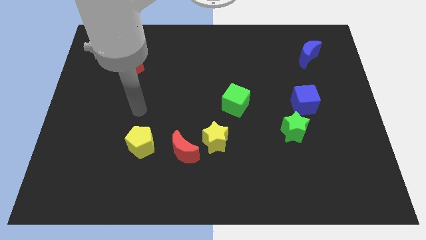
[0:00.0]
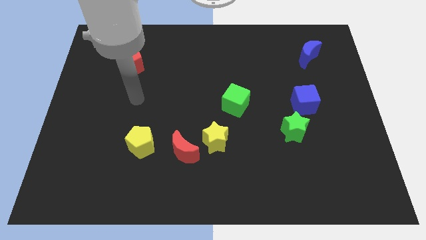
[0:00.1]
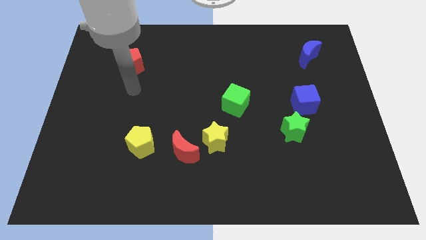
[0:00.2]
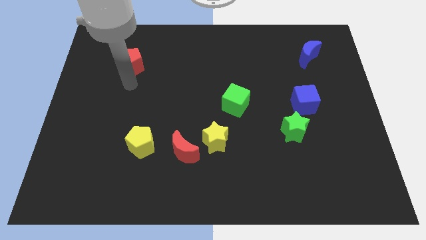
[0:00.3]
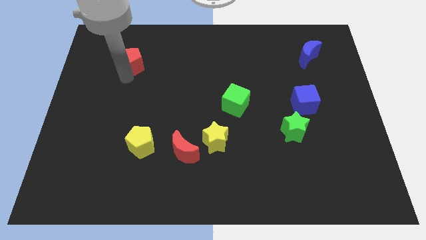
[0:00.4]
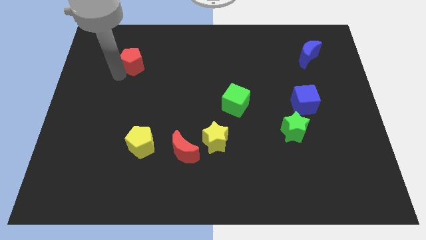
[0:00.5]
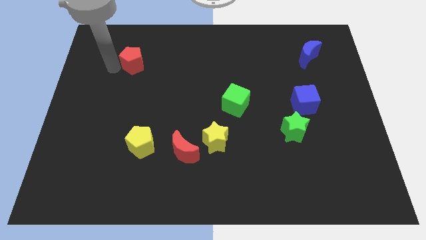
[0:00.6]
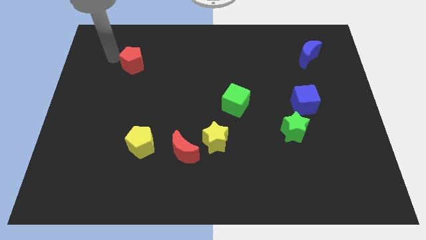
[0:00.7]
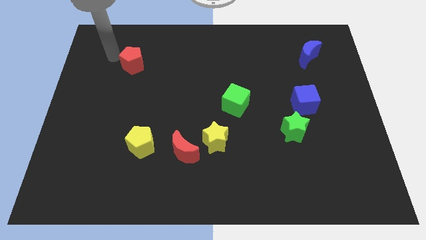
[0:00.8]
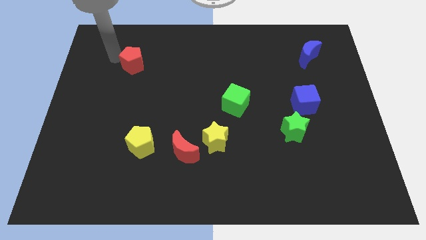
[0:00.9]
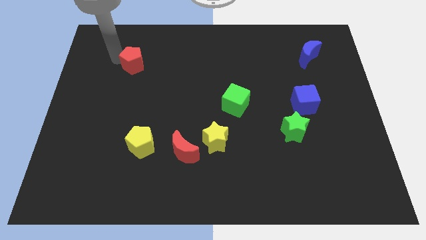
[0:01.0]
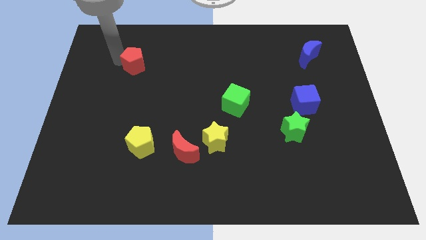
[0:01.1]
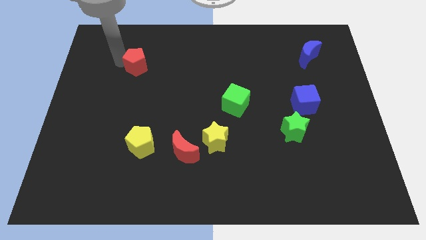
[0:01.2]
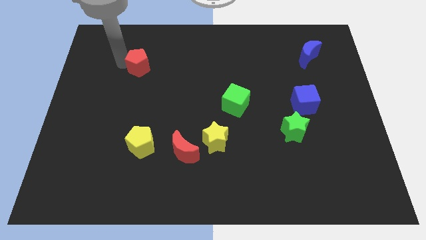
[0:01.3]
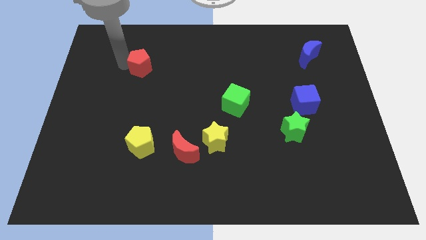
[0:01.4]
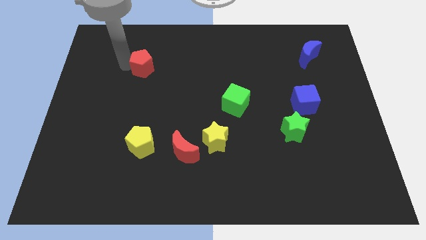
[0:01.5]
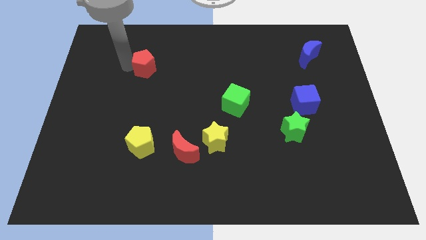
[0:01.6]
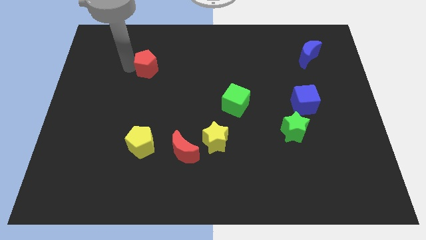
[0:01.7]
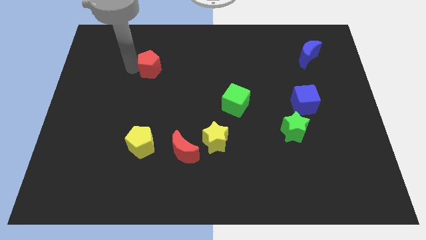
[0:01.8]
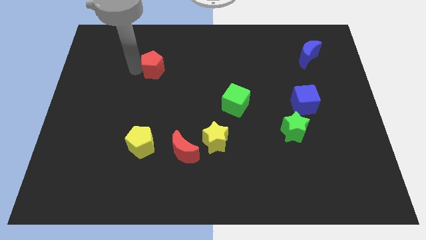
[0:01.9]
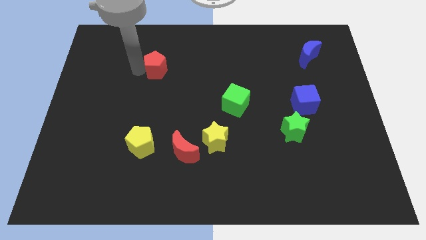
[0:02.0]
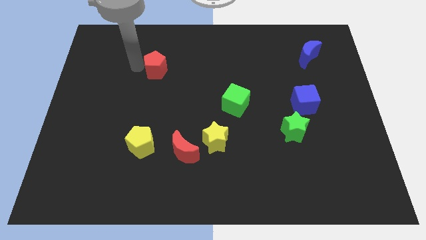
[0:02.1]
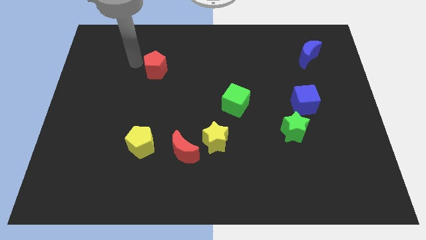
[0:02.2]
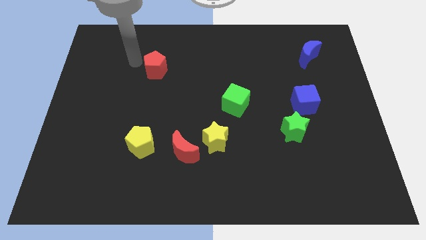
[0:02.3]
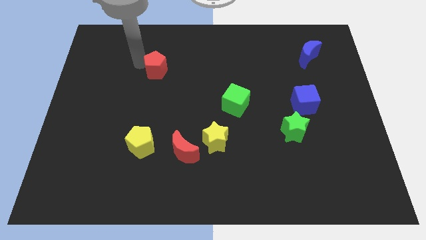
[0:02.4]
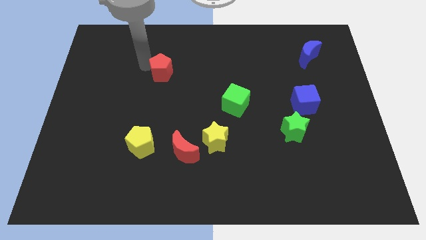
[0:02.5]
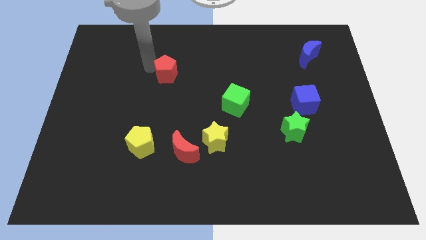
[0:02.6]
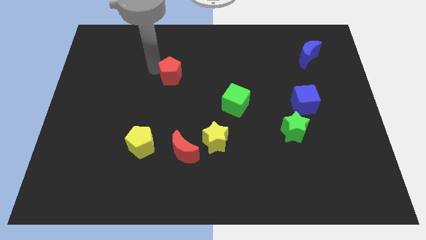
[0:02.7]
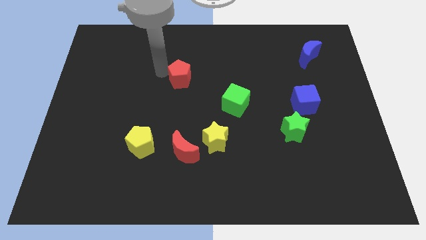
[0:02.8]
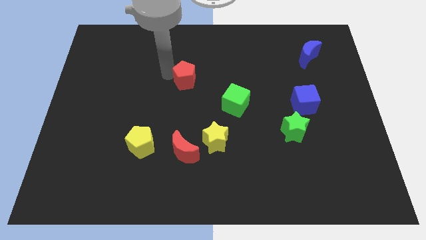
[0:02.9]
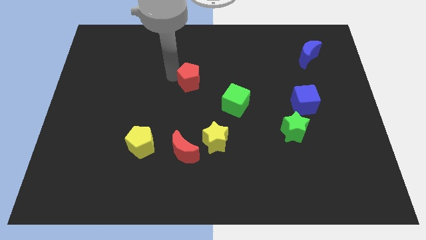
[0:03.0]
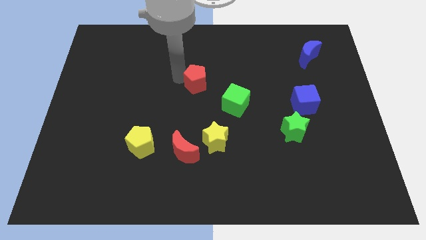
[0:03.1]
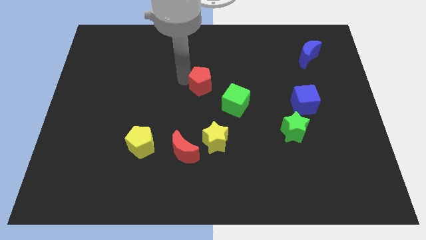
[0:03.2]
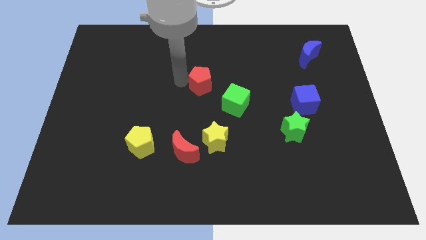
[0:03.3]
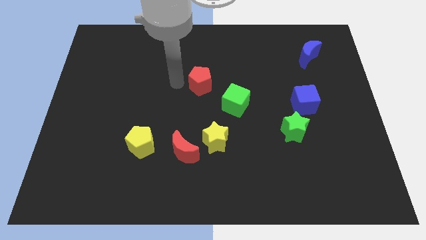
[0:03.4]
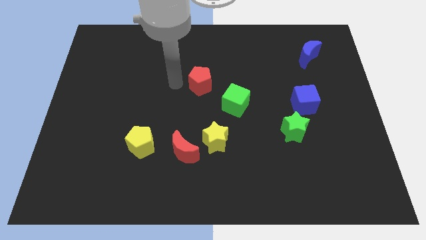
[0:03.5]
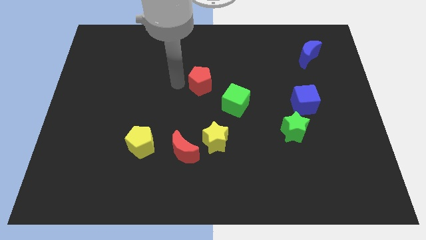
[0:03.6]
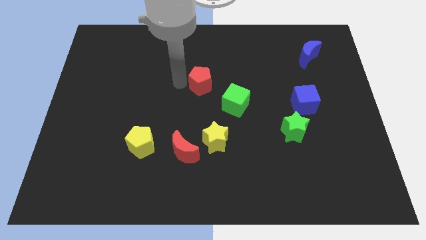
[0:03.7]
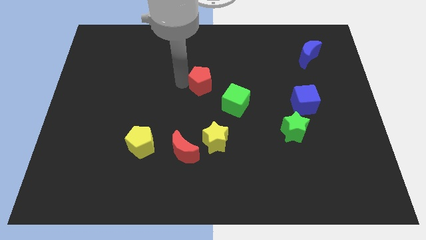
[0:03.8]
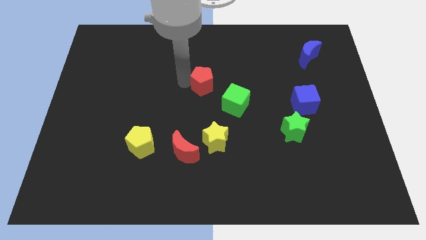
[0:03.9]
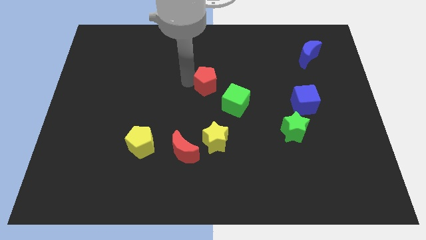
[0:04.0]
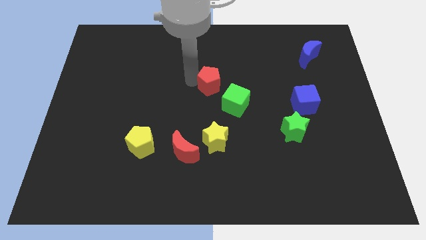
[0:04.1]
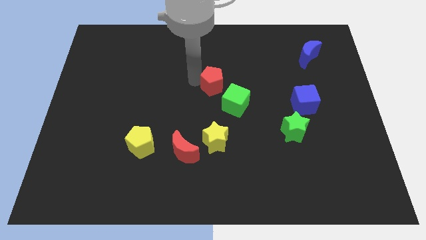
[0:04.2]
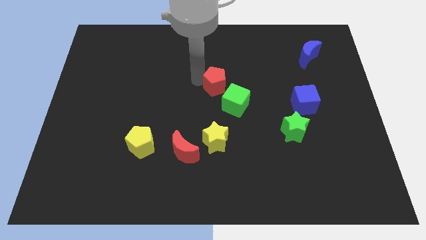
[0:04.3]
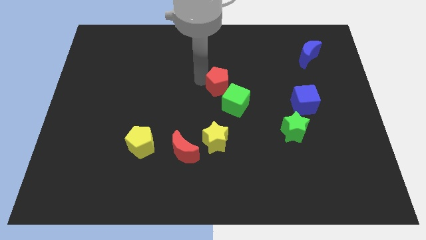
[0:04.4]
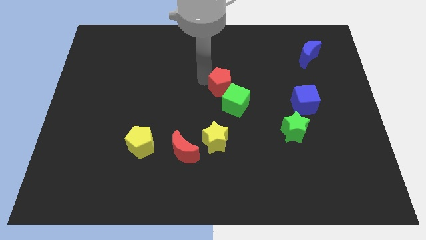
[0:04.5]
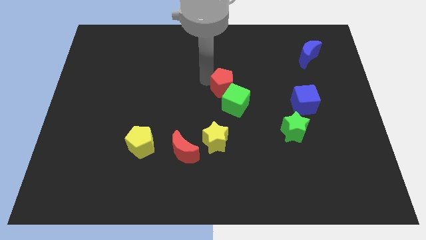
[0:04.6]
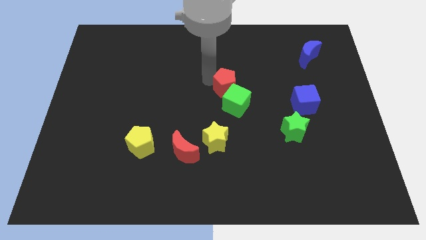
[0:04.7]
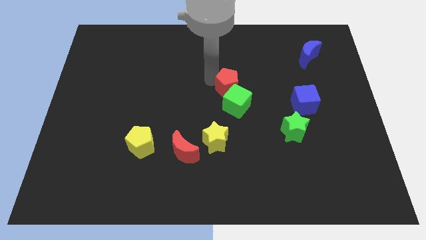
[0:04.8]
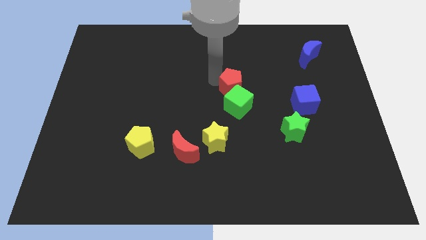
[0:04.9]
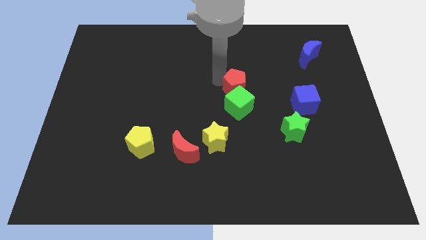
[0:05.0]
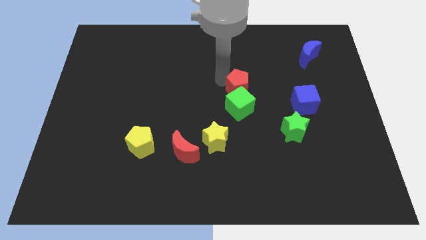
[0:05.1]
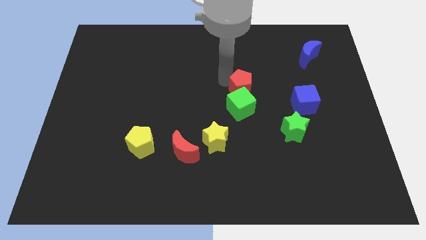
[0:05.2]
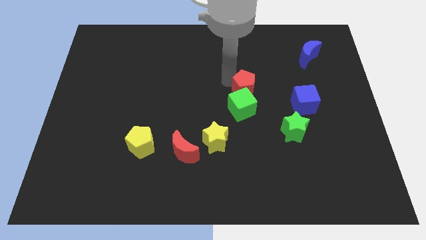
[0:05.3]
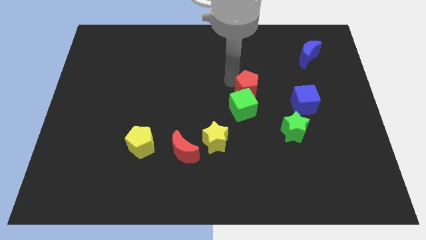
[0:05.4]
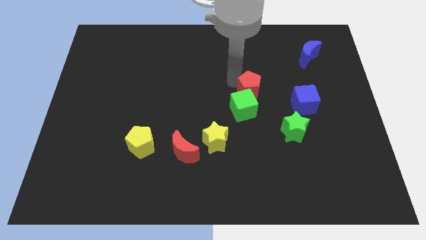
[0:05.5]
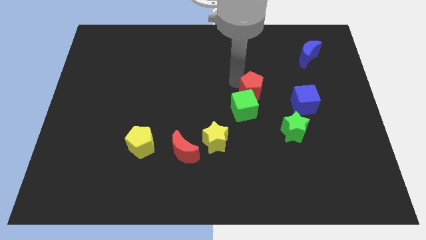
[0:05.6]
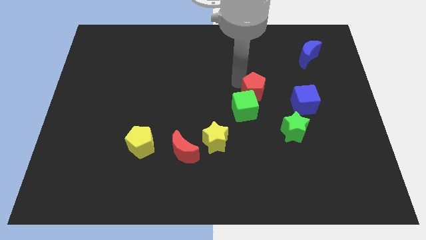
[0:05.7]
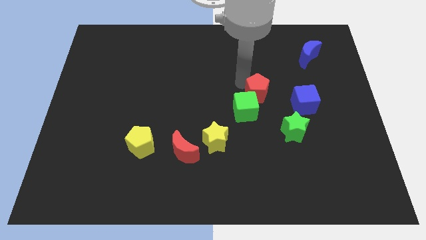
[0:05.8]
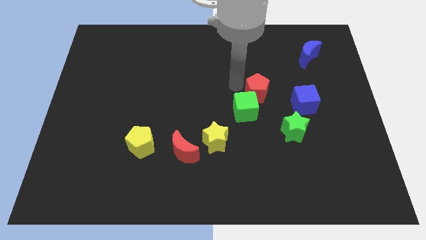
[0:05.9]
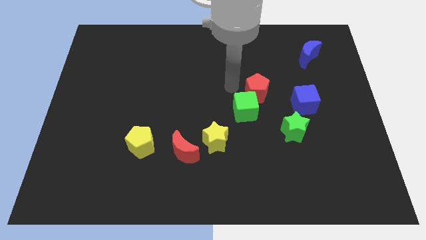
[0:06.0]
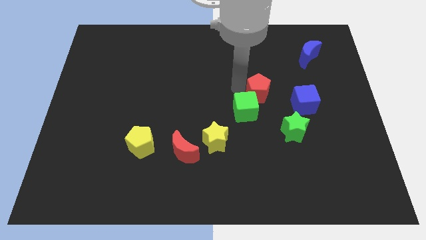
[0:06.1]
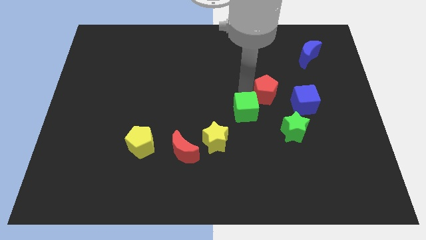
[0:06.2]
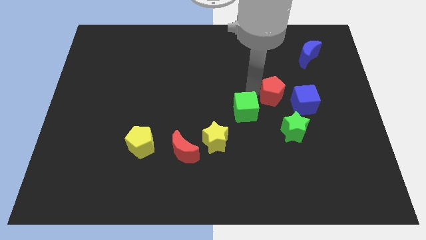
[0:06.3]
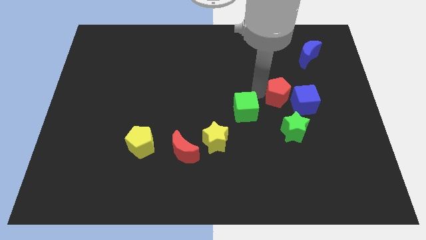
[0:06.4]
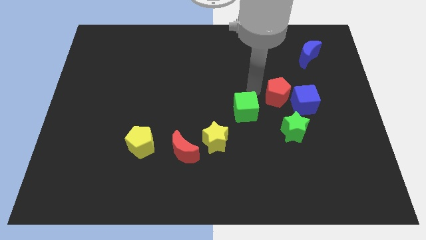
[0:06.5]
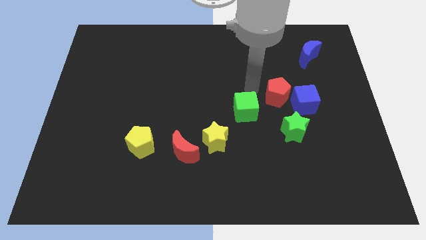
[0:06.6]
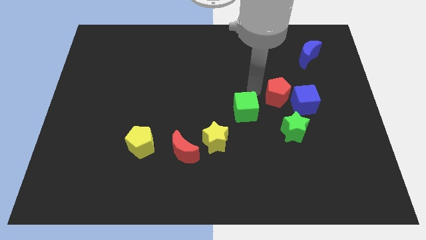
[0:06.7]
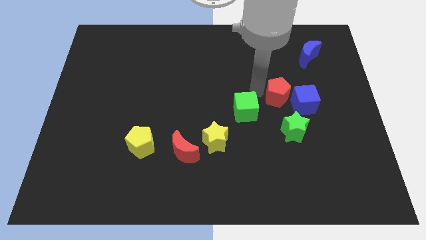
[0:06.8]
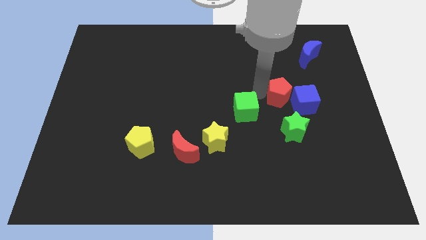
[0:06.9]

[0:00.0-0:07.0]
push the red pentagon towards the blue cube

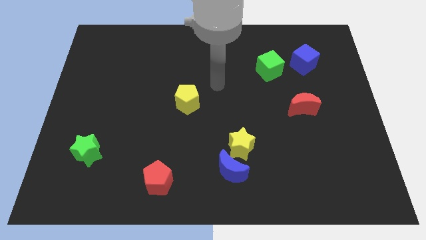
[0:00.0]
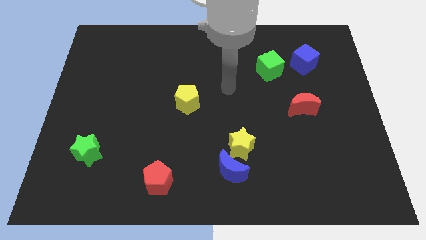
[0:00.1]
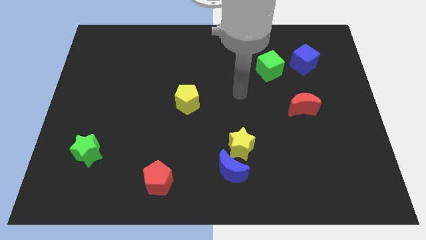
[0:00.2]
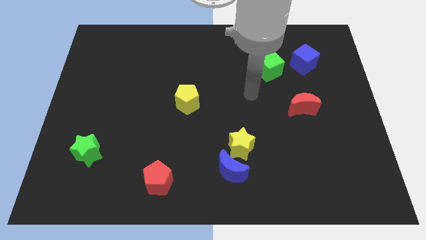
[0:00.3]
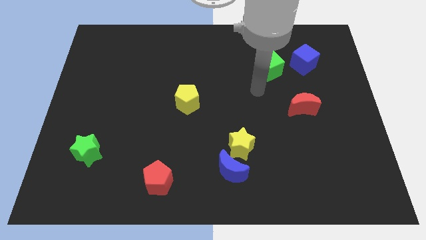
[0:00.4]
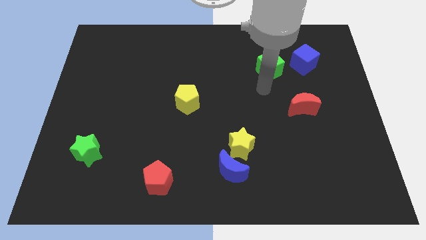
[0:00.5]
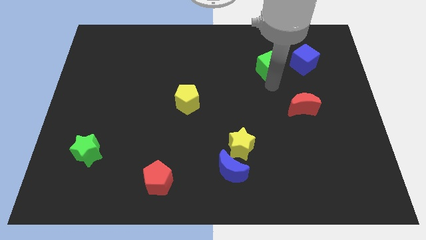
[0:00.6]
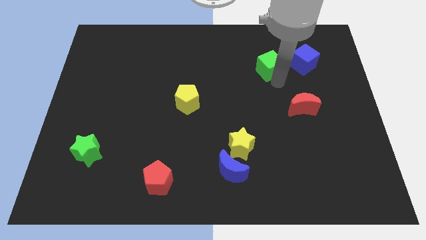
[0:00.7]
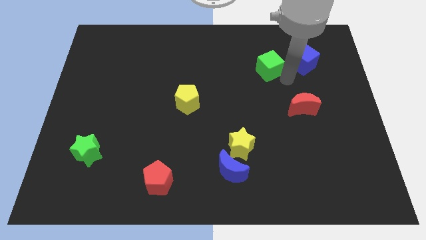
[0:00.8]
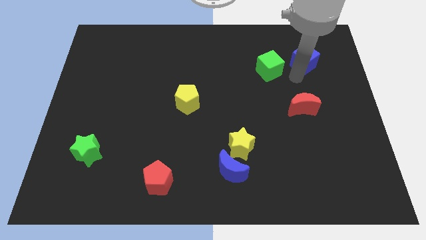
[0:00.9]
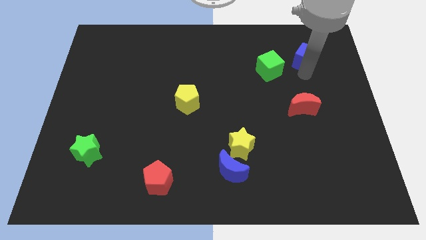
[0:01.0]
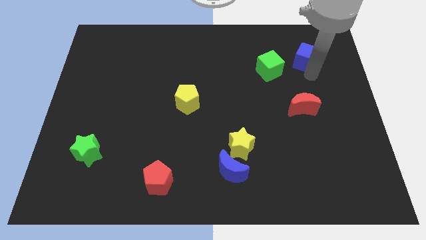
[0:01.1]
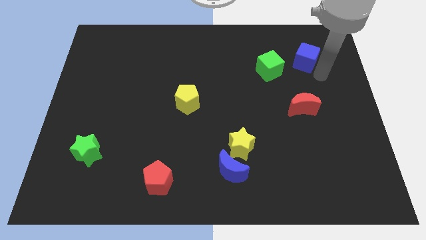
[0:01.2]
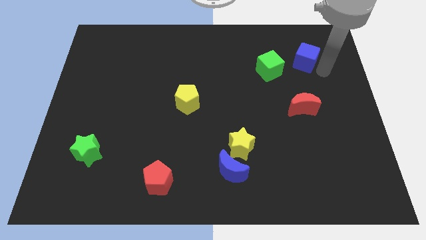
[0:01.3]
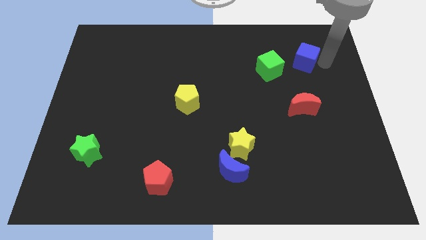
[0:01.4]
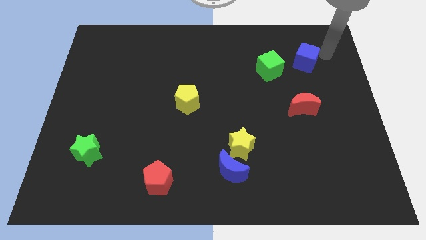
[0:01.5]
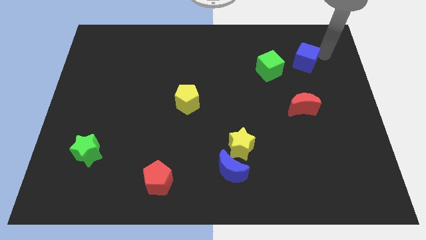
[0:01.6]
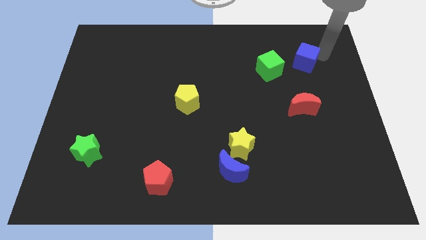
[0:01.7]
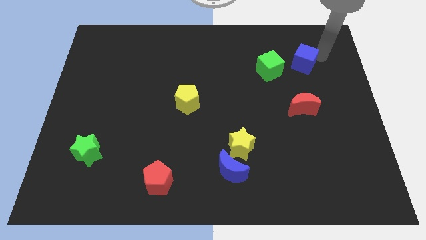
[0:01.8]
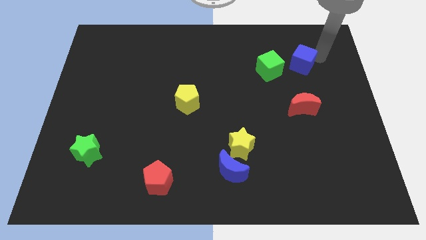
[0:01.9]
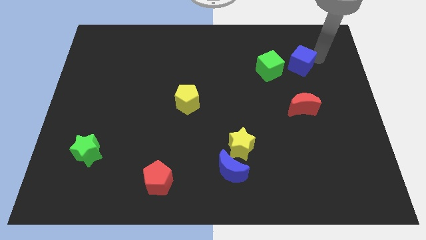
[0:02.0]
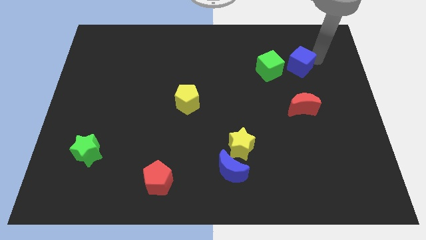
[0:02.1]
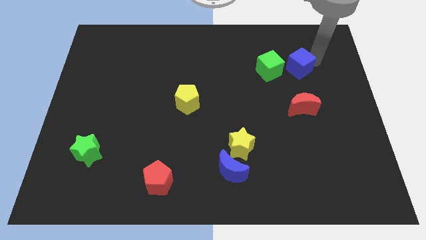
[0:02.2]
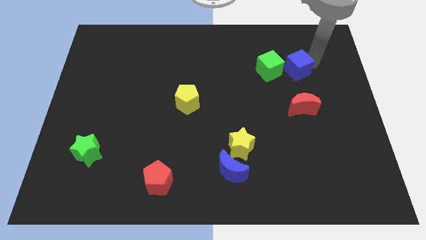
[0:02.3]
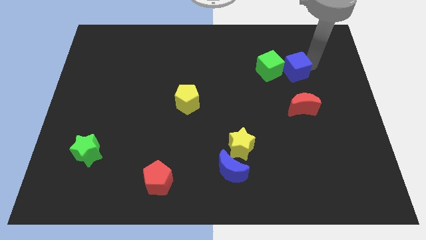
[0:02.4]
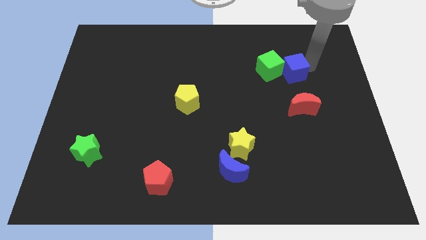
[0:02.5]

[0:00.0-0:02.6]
slide the blue cube towards the green cube
